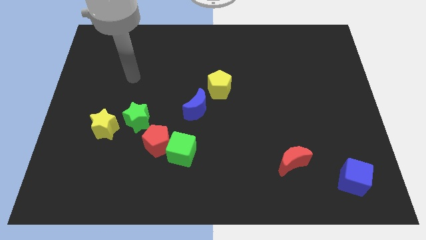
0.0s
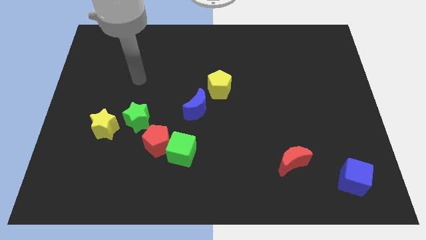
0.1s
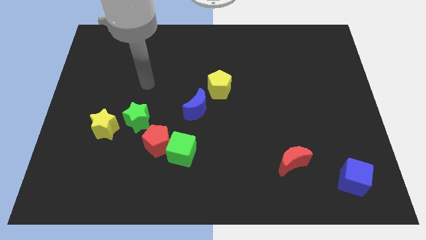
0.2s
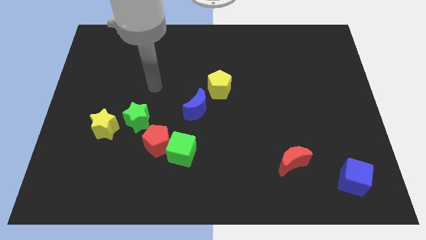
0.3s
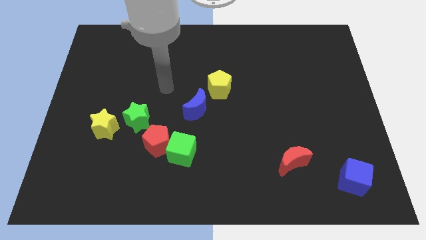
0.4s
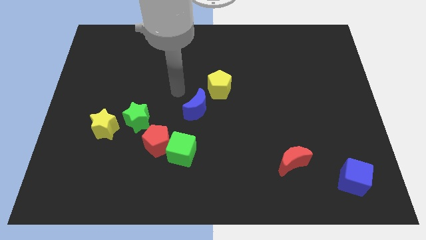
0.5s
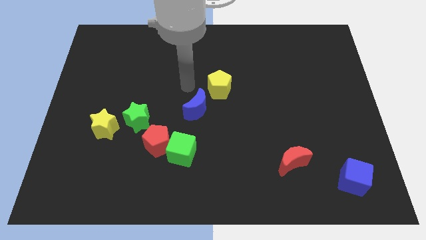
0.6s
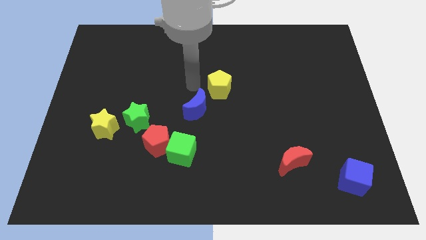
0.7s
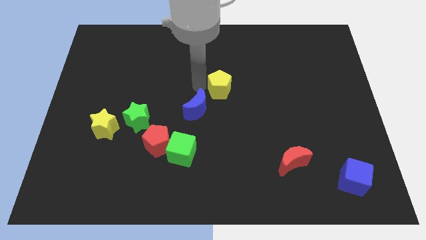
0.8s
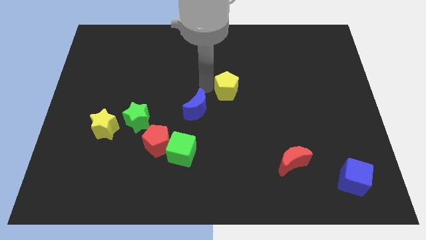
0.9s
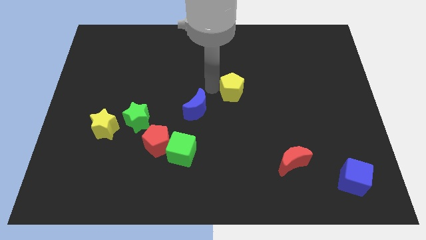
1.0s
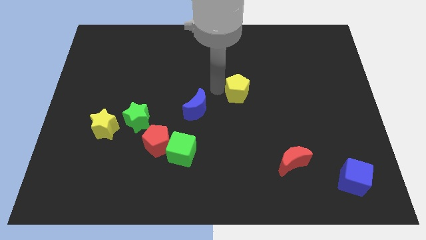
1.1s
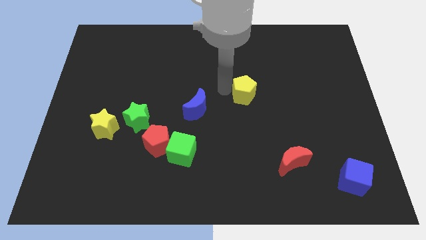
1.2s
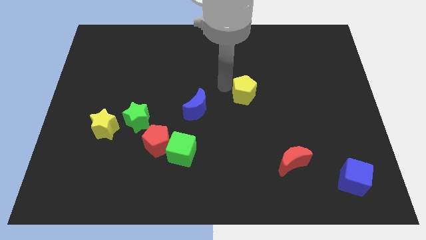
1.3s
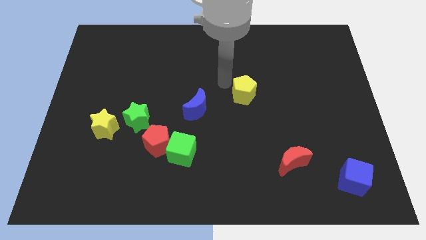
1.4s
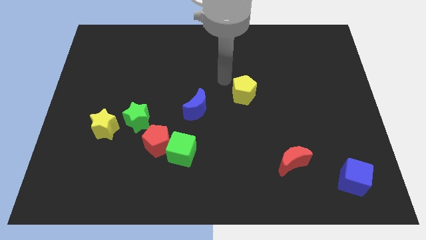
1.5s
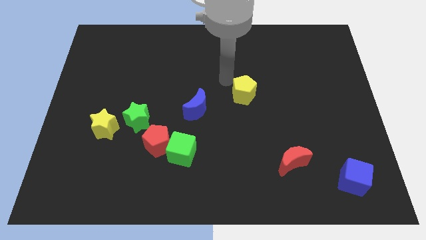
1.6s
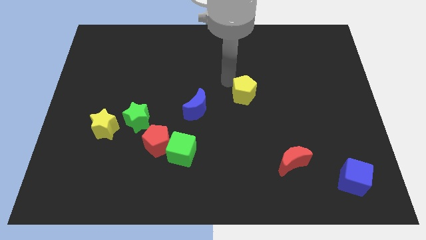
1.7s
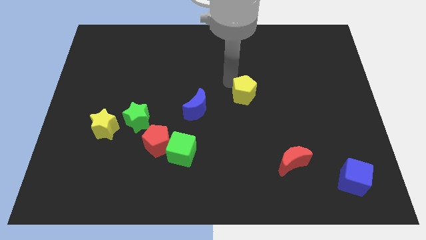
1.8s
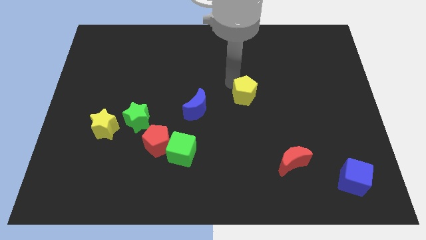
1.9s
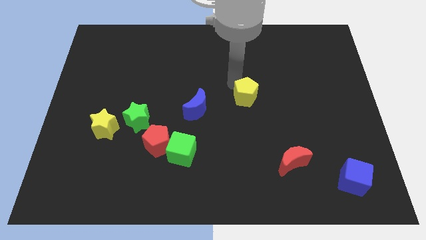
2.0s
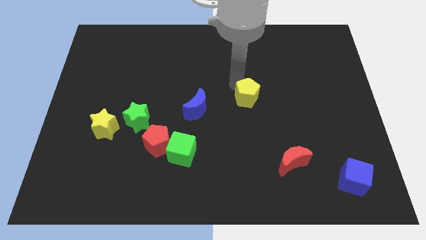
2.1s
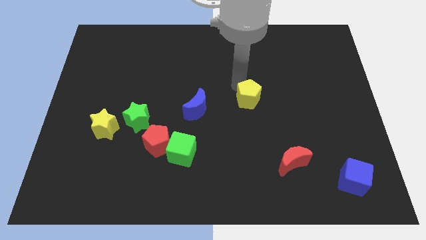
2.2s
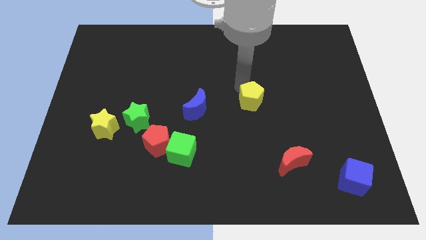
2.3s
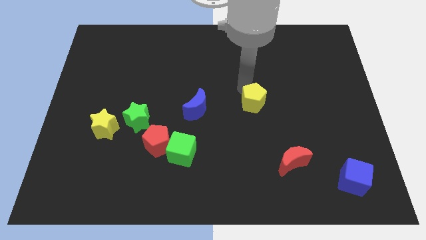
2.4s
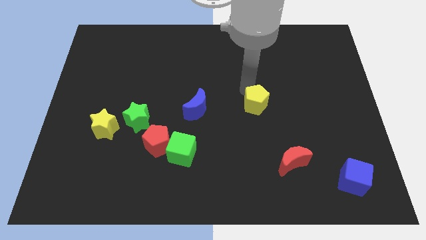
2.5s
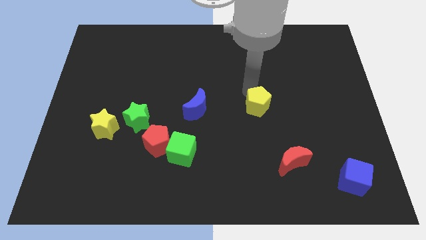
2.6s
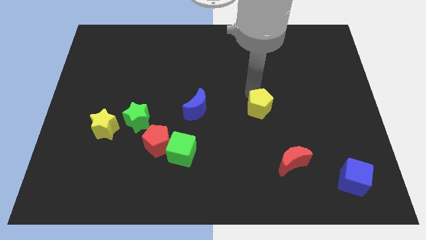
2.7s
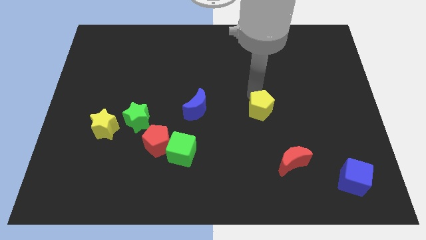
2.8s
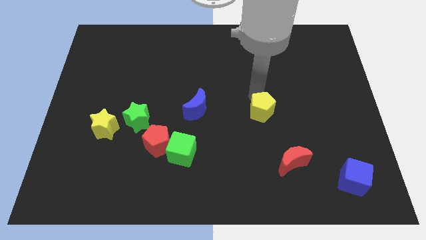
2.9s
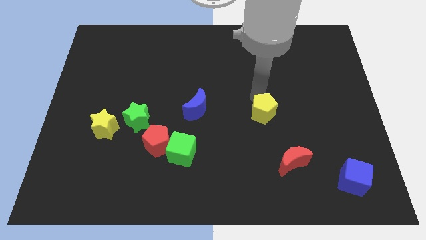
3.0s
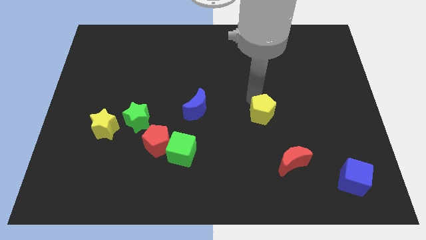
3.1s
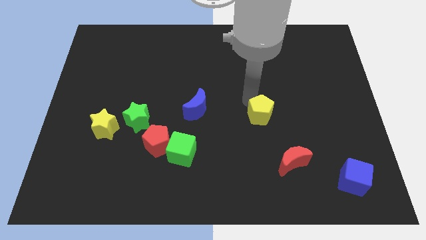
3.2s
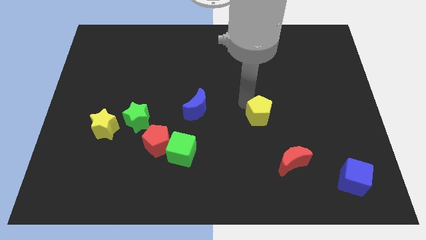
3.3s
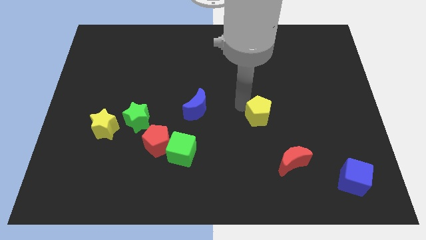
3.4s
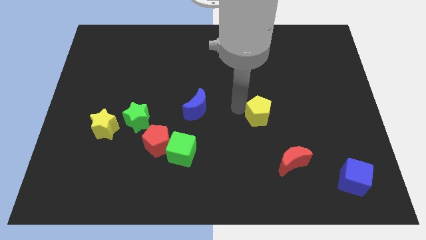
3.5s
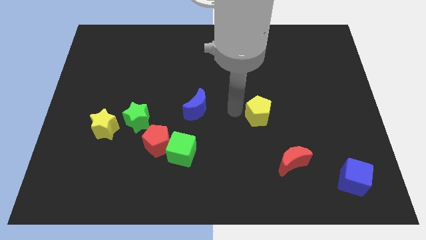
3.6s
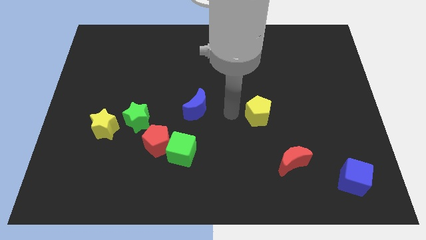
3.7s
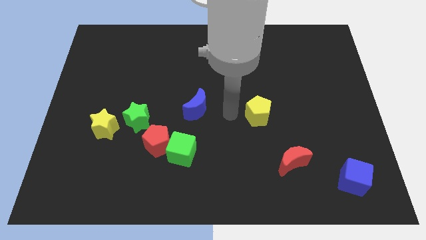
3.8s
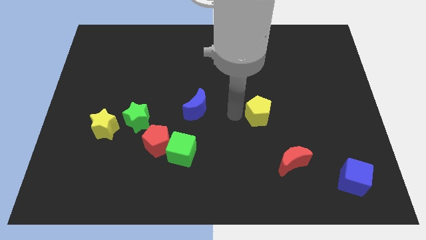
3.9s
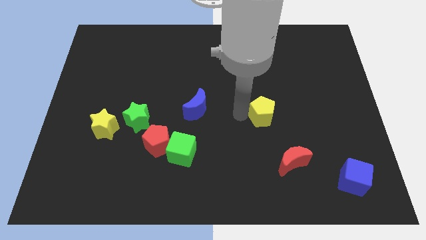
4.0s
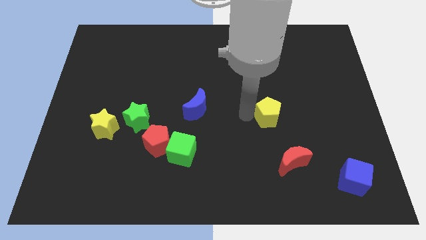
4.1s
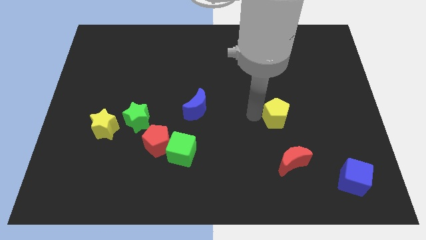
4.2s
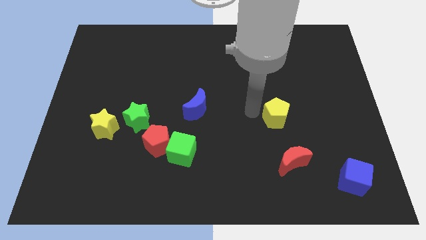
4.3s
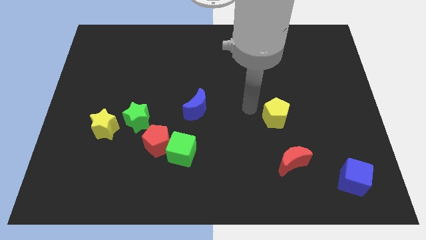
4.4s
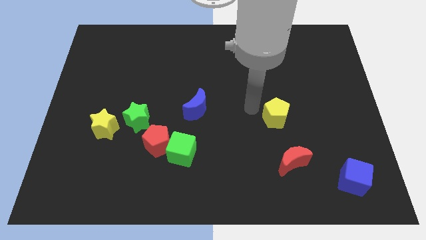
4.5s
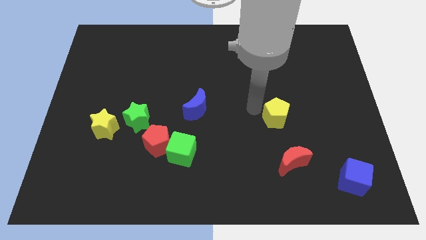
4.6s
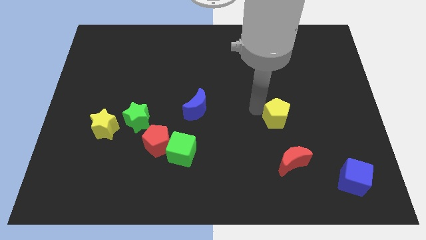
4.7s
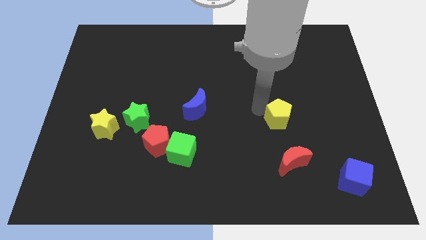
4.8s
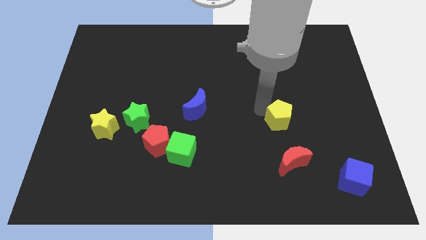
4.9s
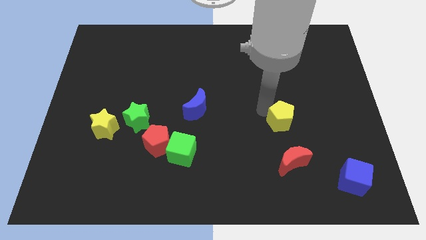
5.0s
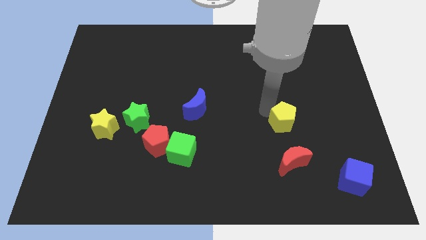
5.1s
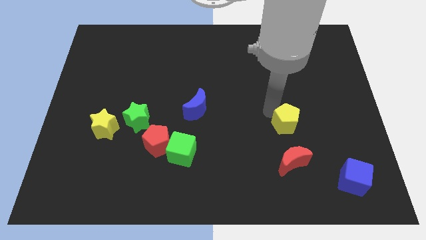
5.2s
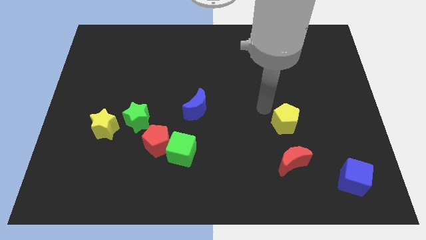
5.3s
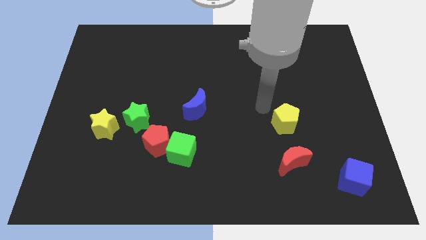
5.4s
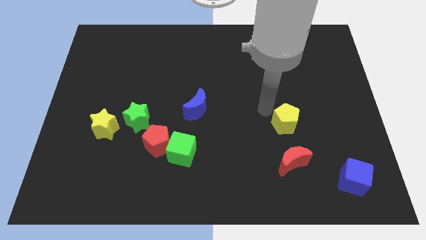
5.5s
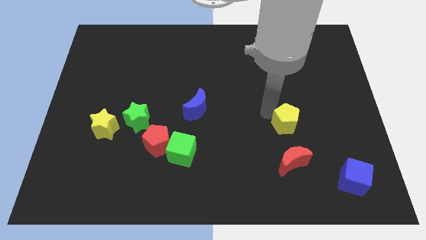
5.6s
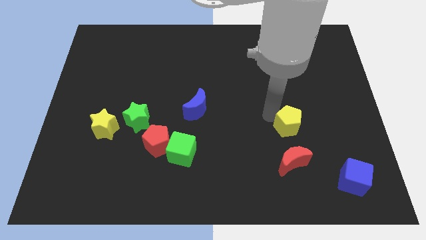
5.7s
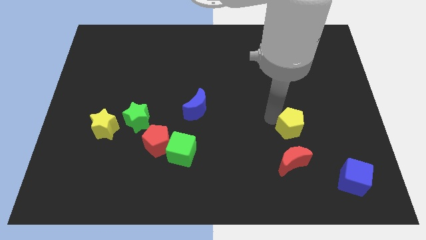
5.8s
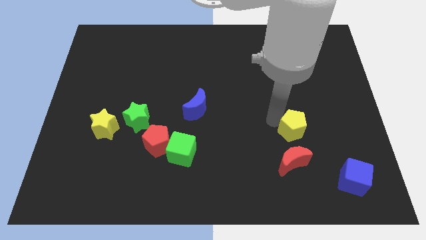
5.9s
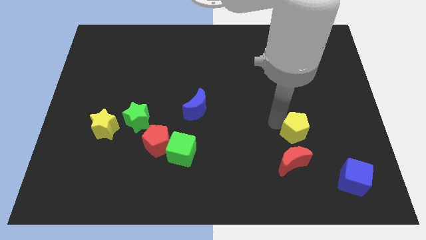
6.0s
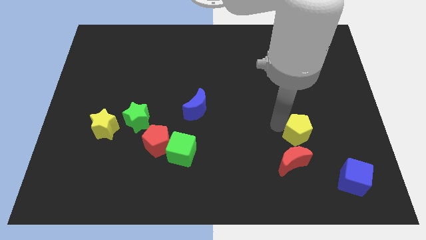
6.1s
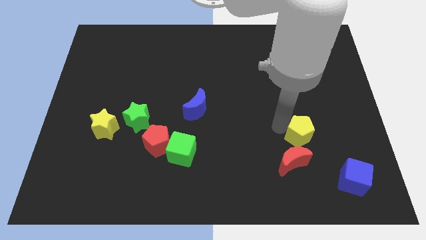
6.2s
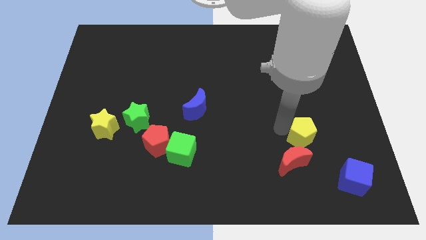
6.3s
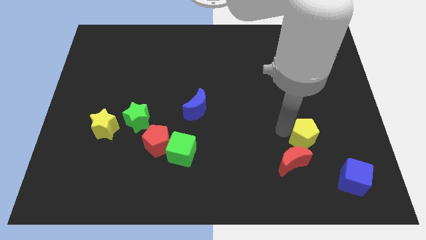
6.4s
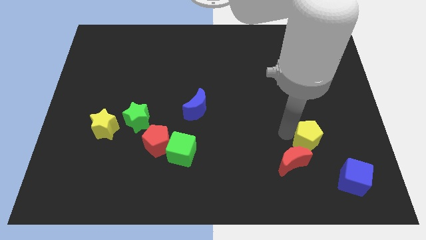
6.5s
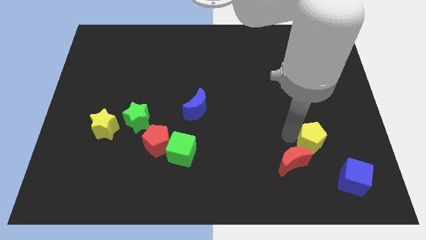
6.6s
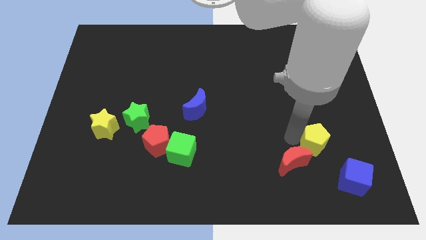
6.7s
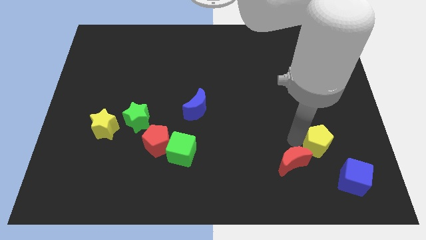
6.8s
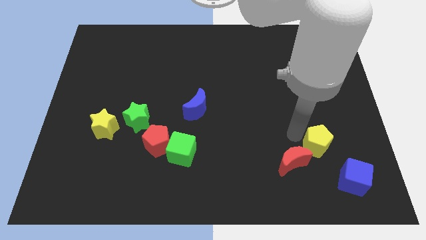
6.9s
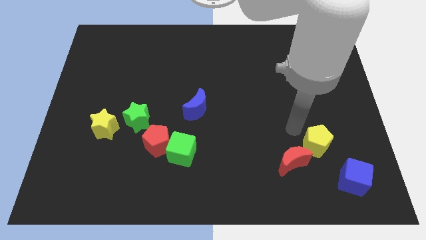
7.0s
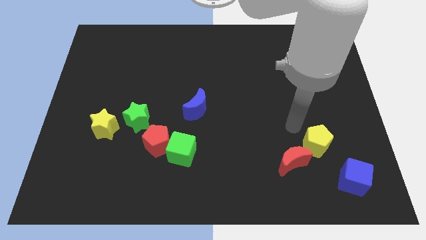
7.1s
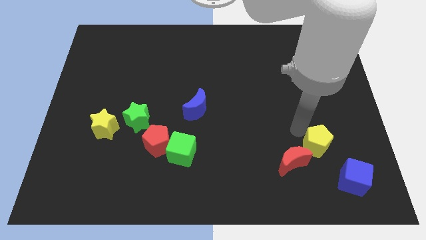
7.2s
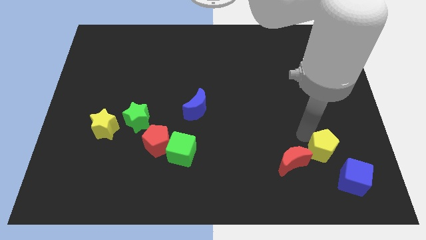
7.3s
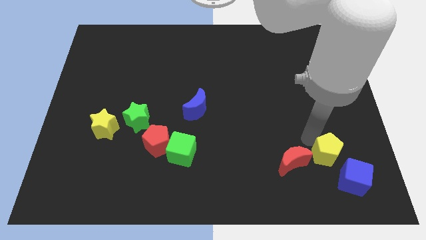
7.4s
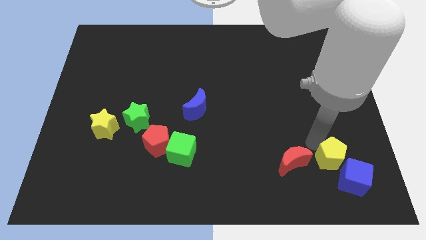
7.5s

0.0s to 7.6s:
push the yellow pentagon to the blue cube

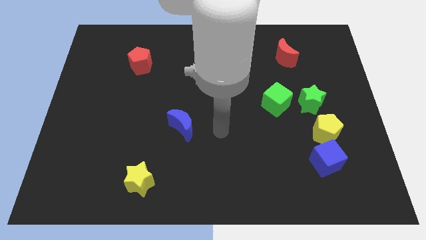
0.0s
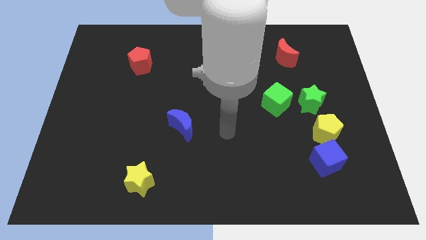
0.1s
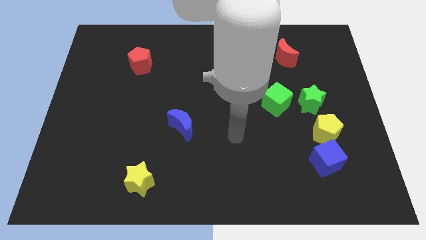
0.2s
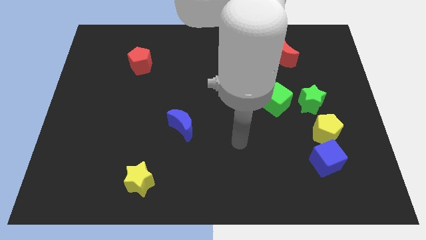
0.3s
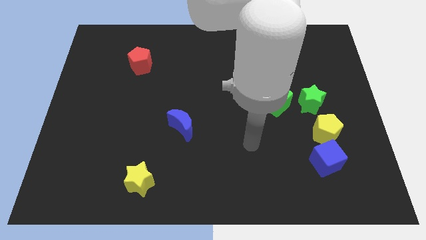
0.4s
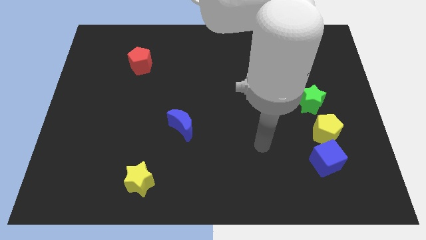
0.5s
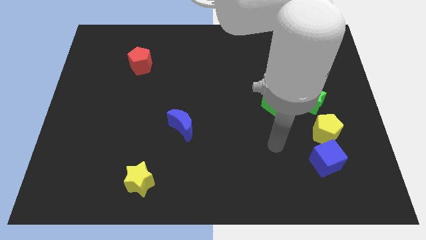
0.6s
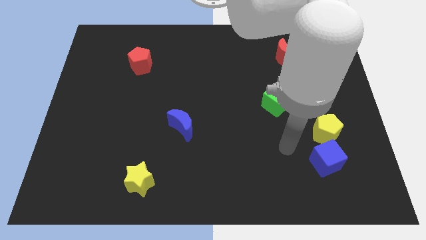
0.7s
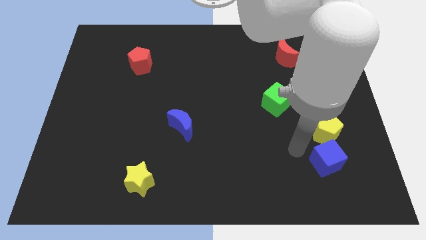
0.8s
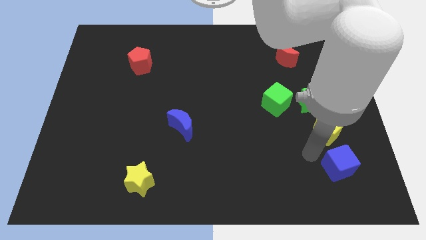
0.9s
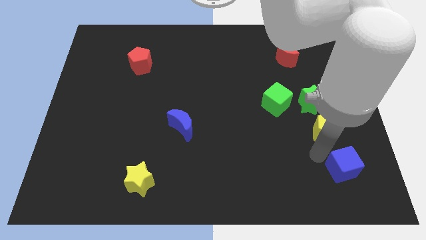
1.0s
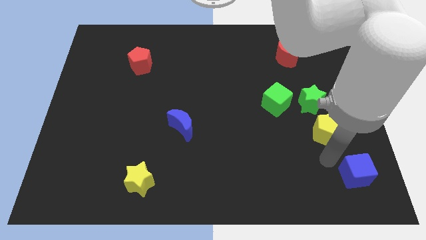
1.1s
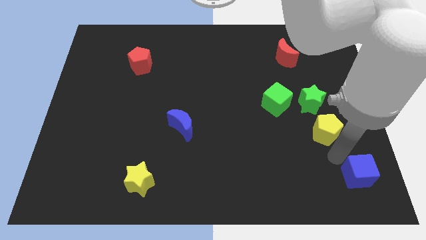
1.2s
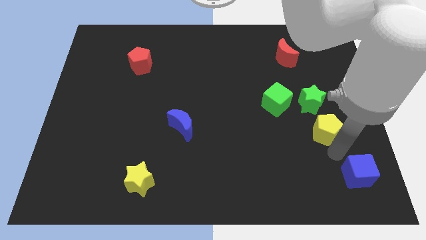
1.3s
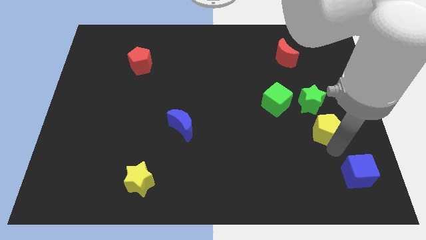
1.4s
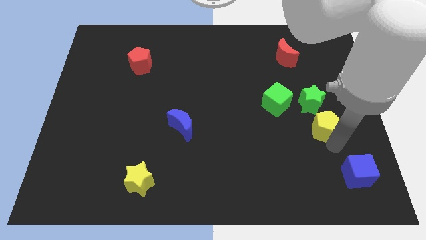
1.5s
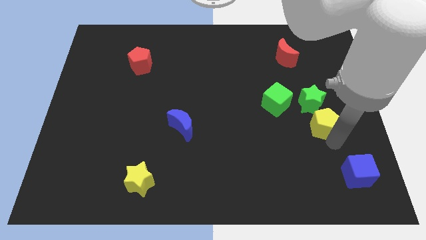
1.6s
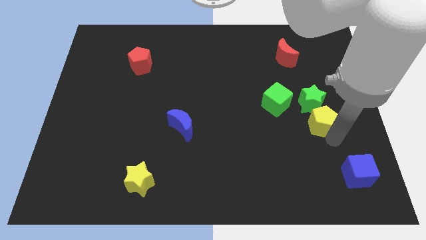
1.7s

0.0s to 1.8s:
put the yellow pentagon towards the green star
